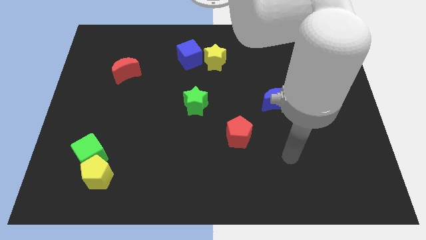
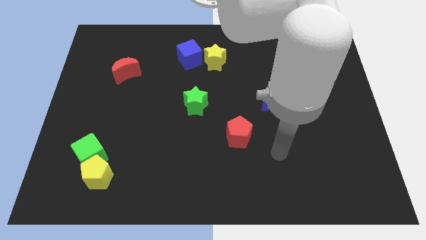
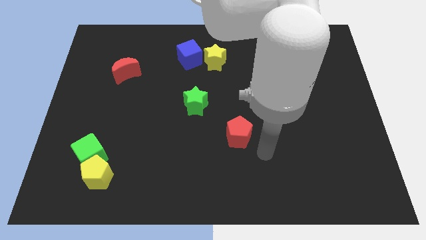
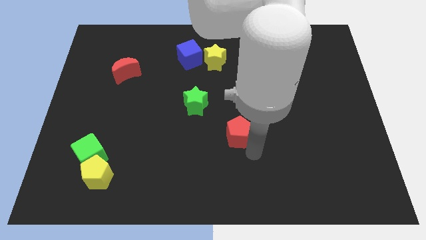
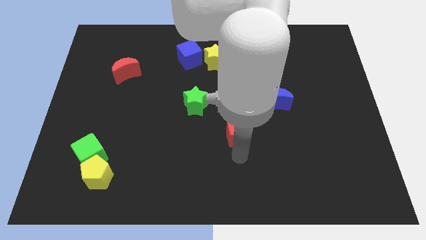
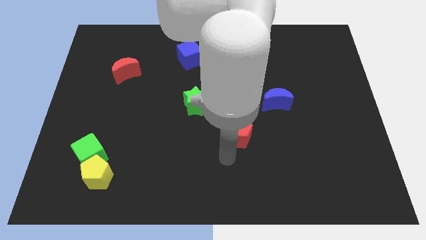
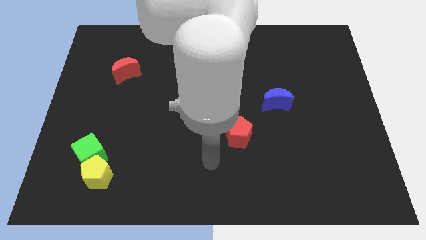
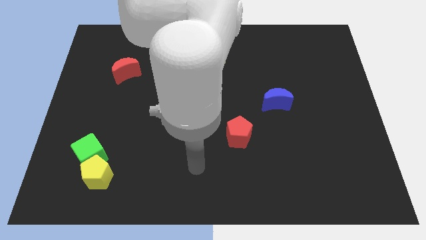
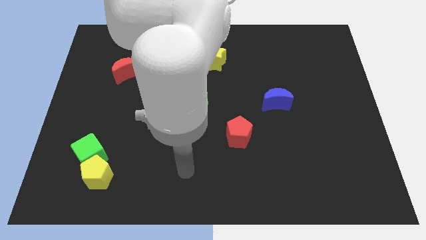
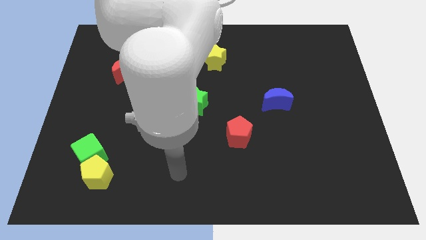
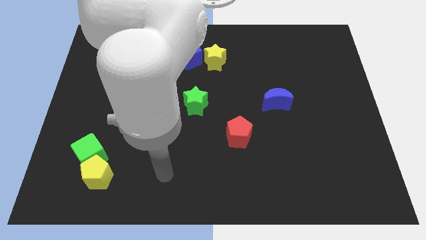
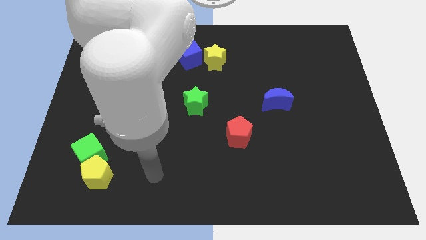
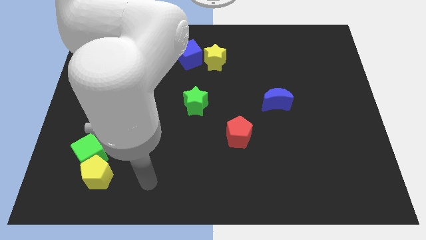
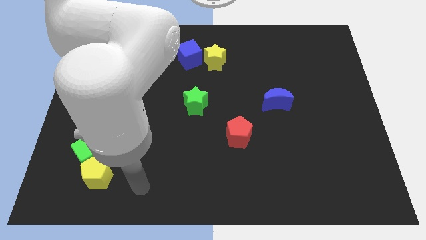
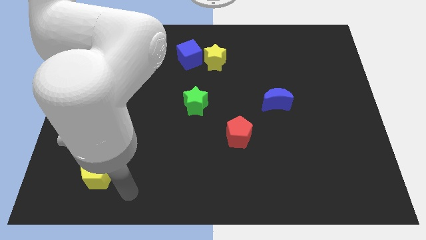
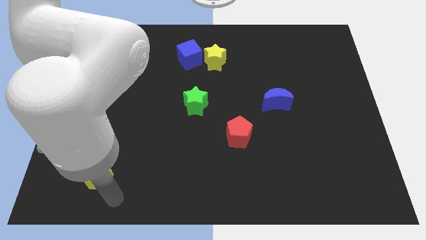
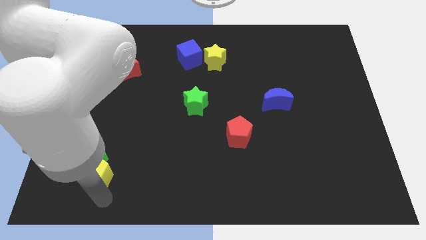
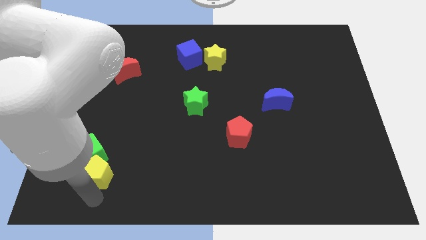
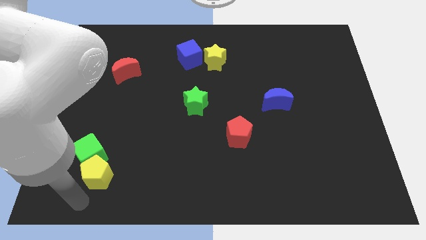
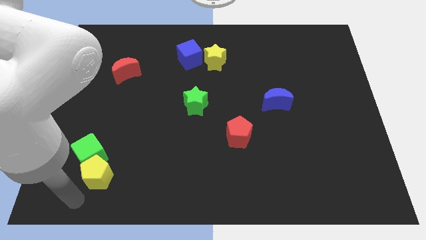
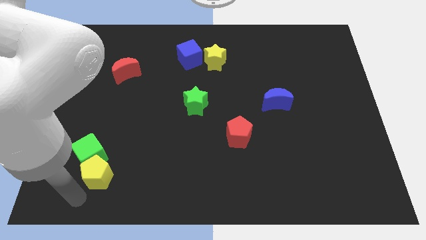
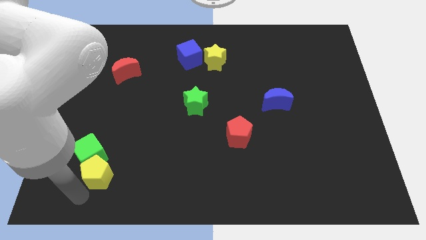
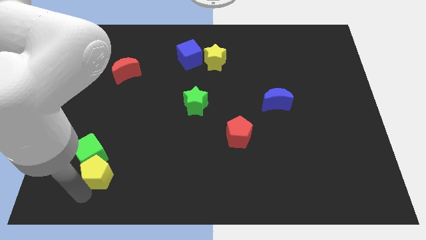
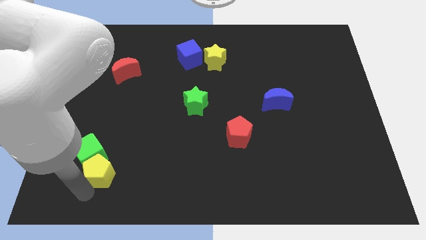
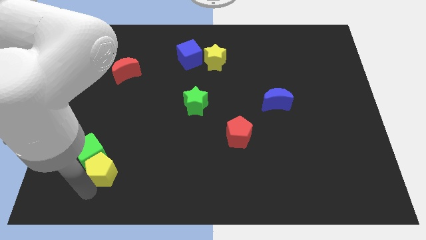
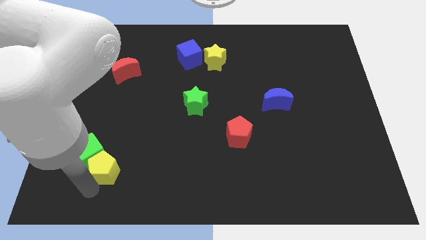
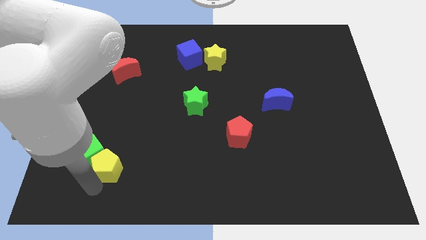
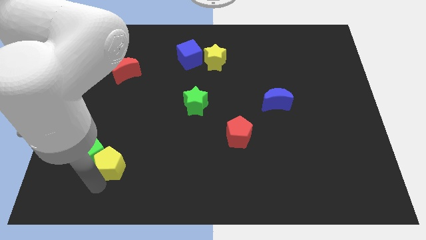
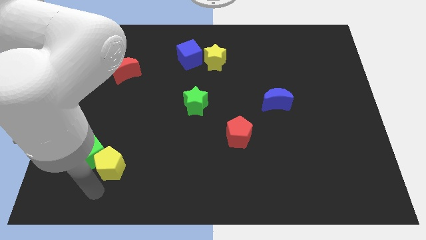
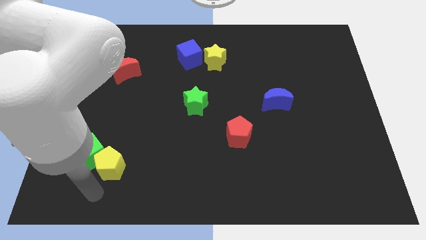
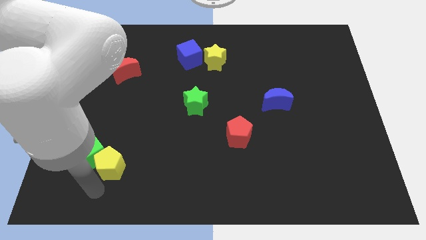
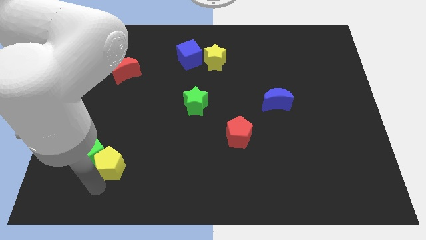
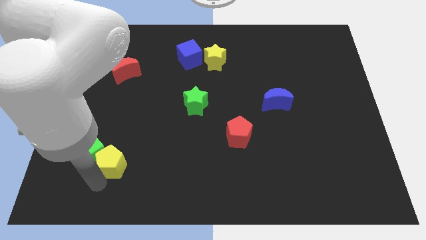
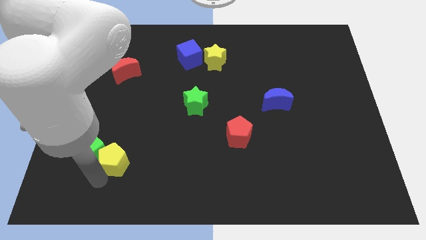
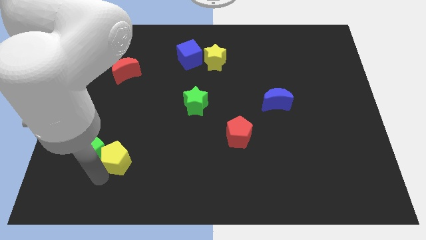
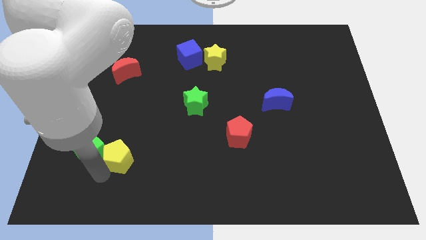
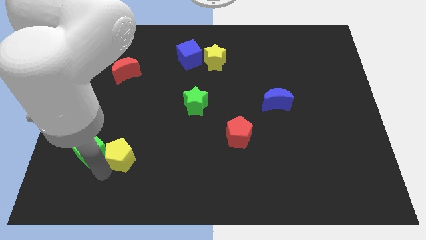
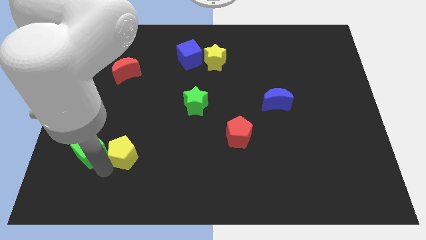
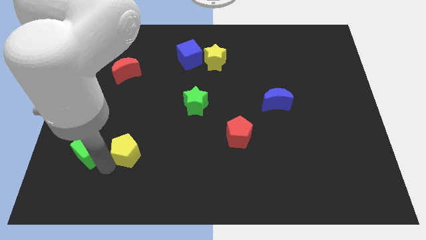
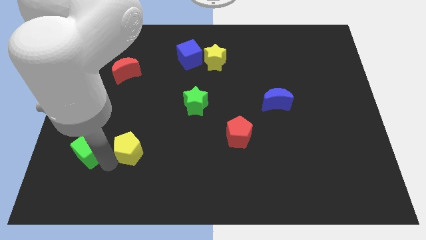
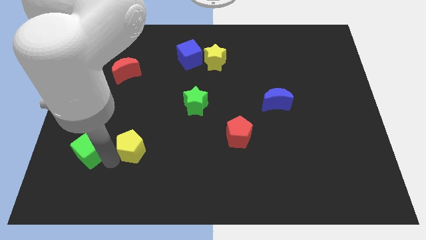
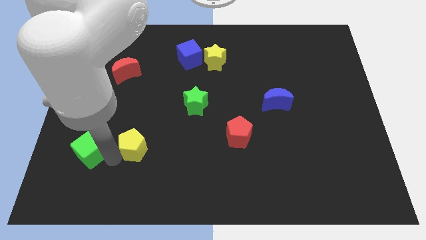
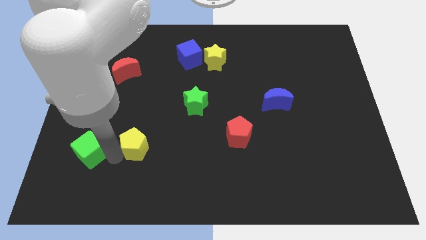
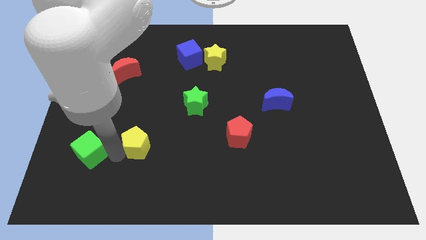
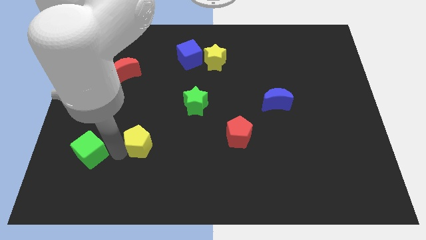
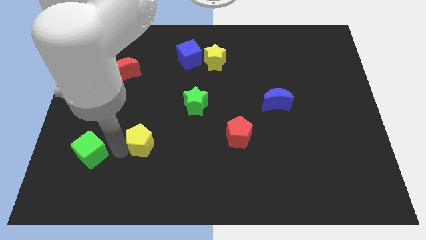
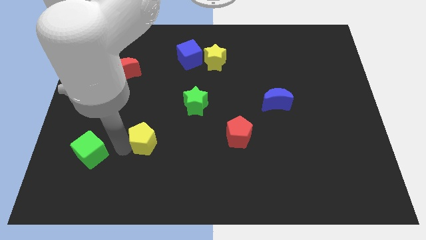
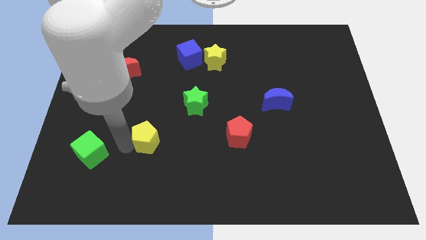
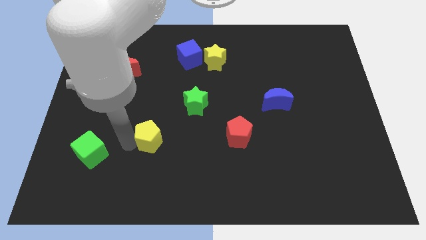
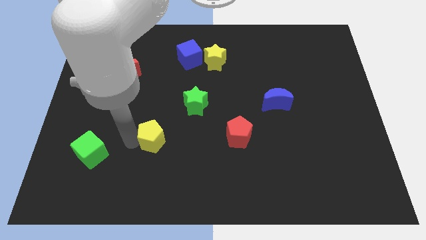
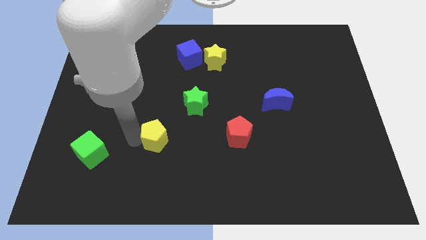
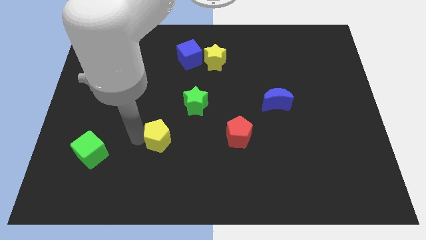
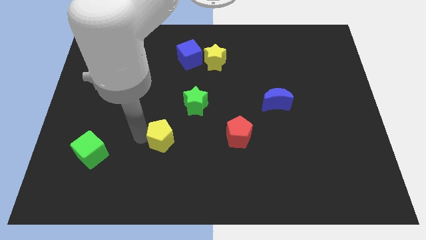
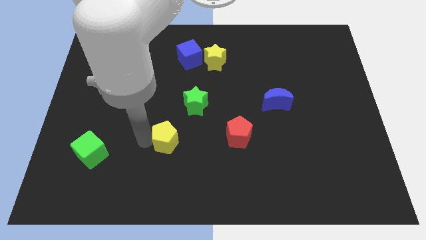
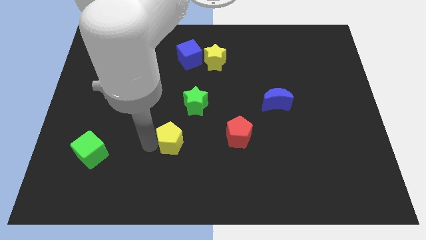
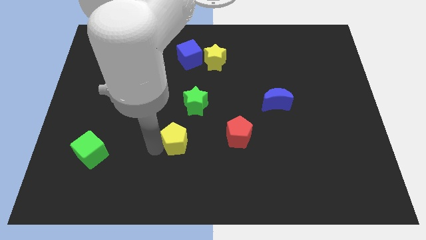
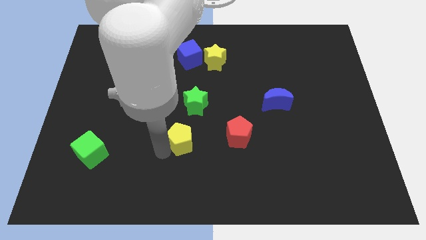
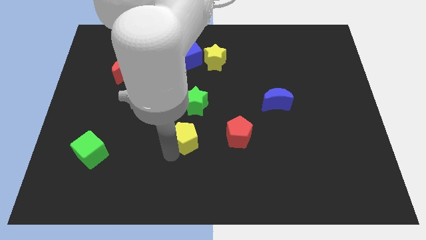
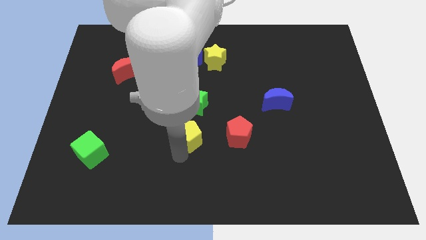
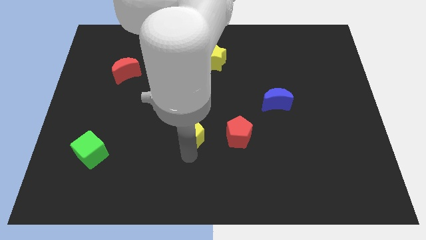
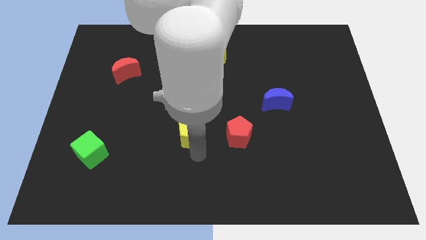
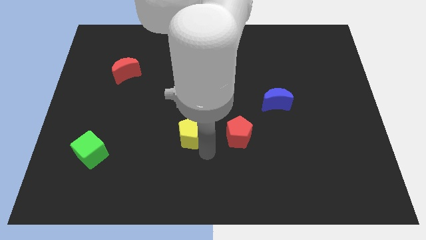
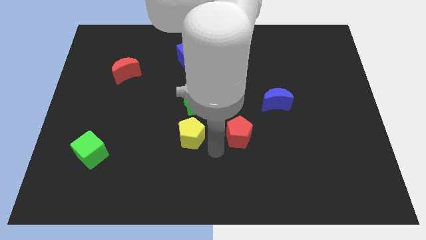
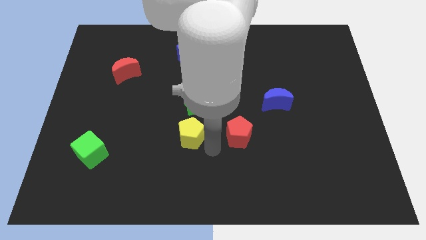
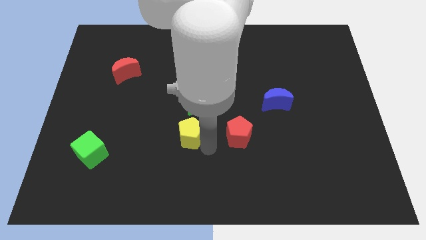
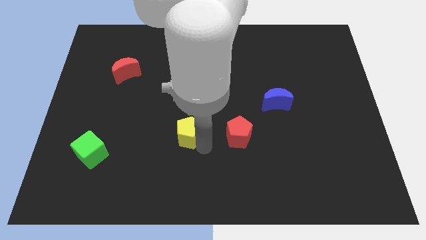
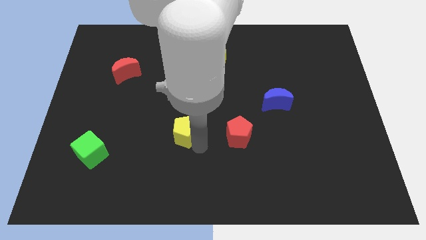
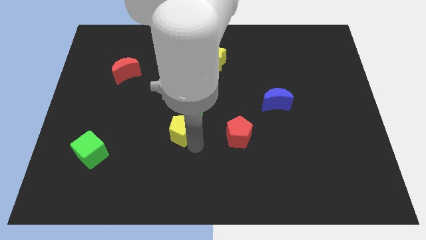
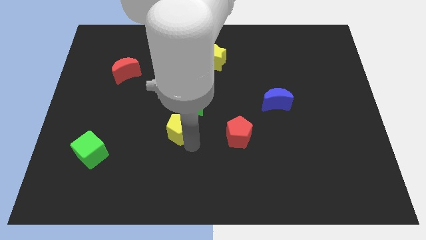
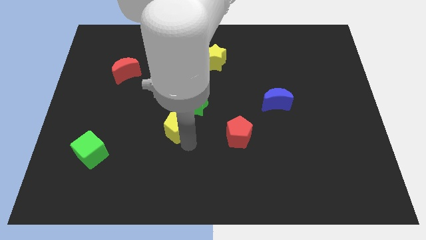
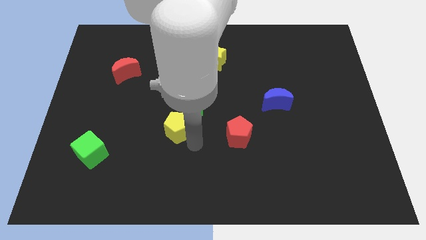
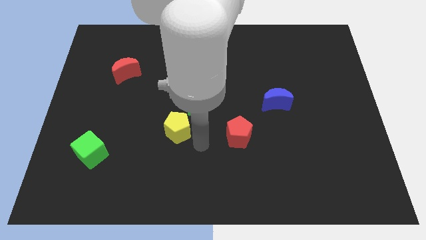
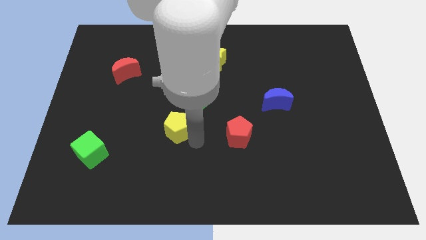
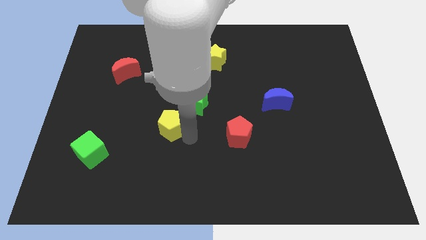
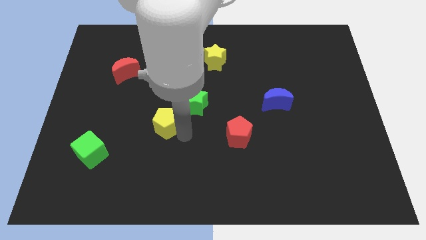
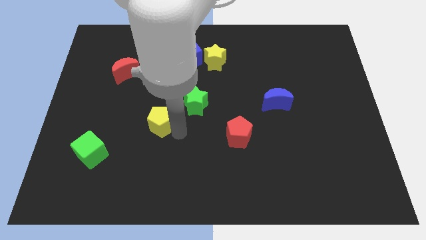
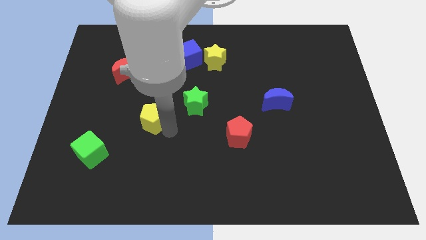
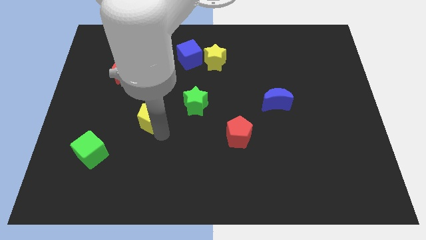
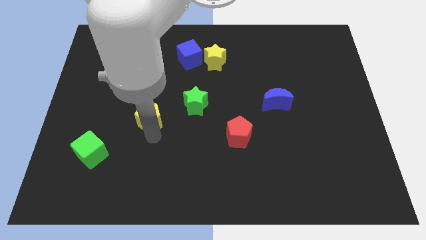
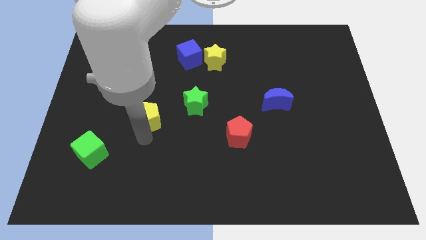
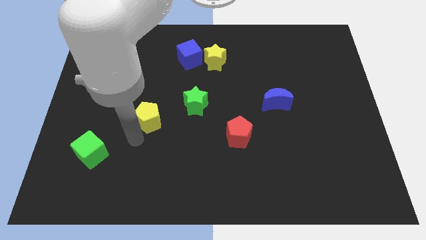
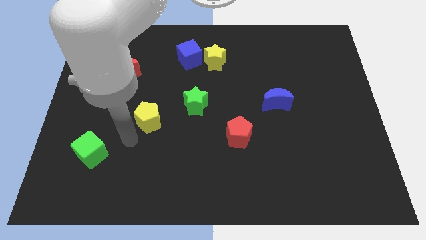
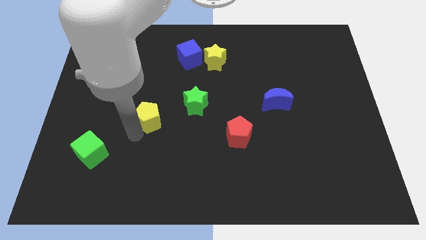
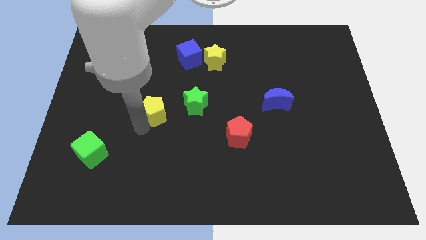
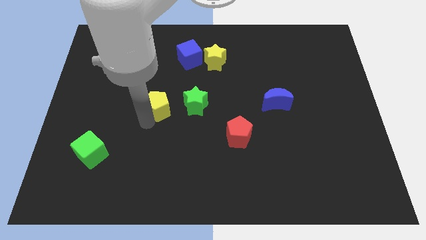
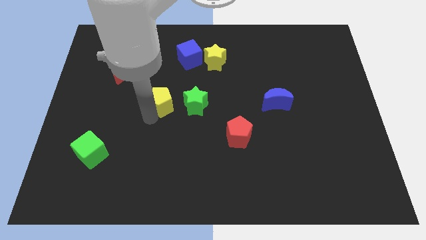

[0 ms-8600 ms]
push the yellow pentagon upwards and then to the right
